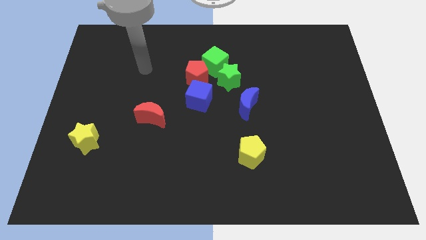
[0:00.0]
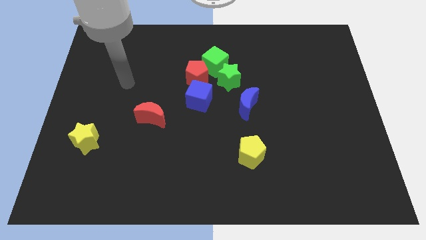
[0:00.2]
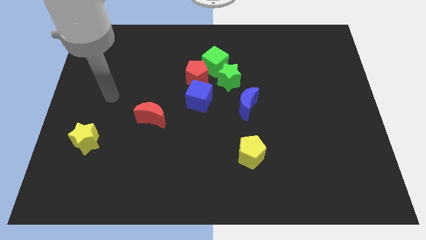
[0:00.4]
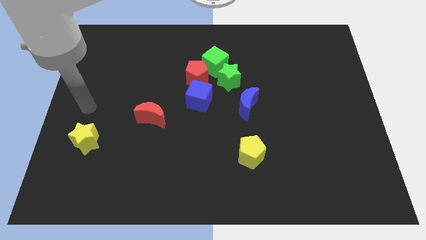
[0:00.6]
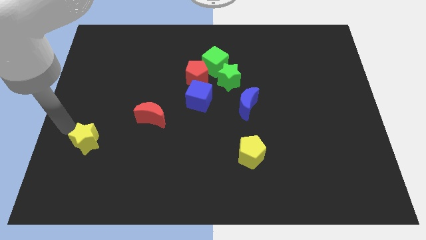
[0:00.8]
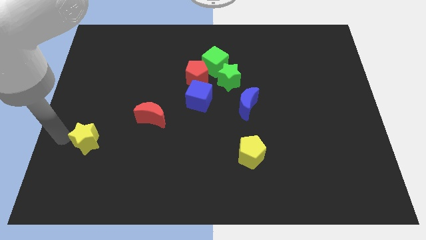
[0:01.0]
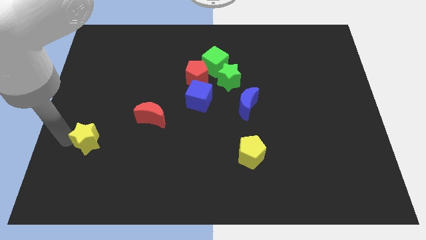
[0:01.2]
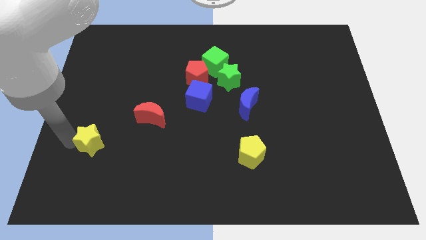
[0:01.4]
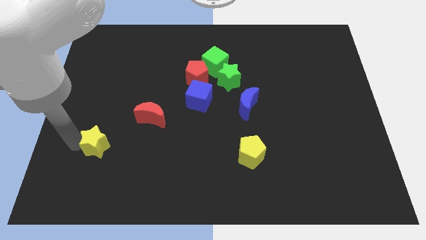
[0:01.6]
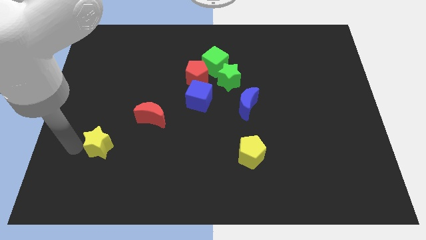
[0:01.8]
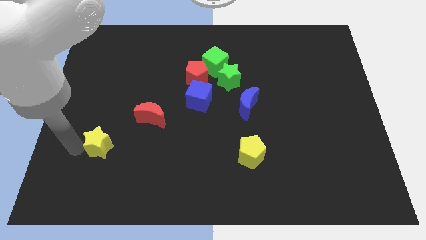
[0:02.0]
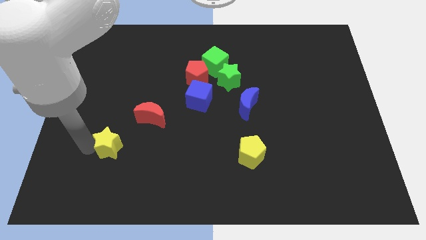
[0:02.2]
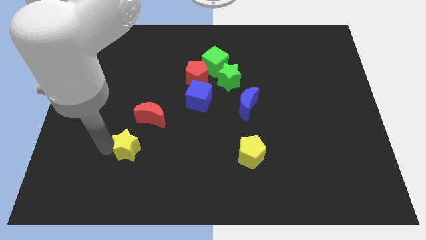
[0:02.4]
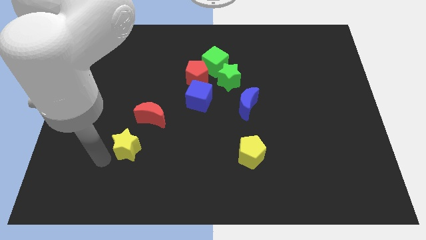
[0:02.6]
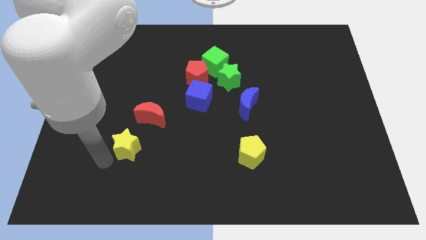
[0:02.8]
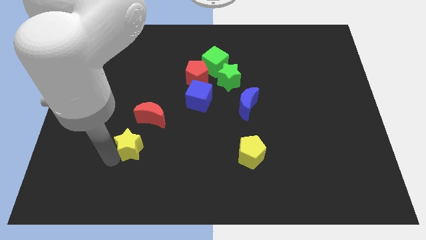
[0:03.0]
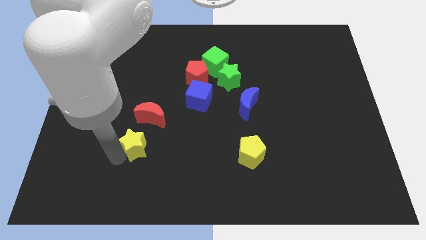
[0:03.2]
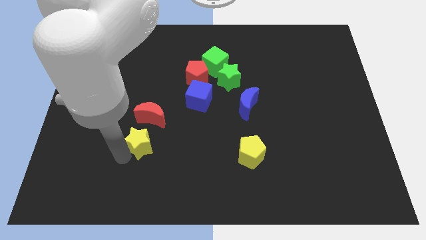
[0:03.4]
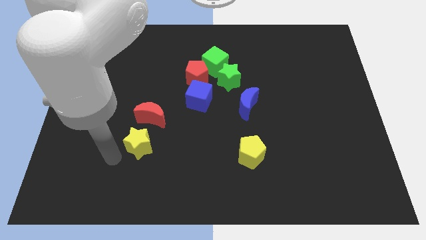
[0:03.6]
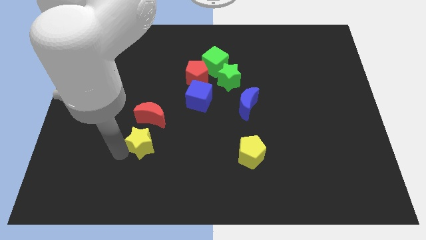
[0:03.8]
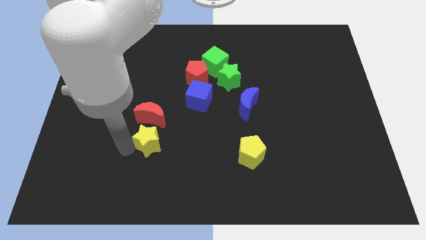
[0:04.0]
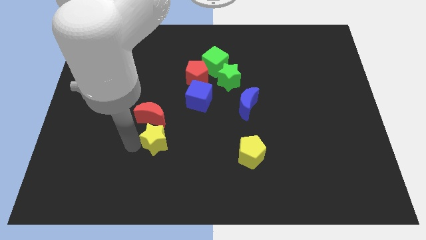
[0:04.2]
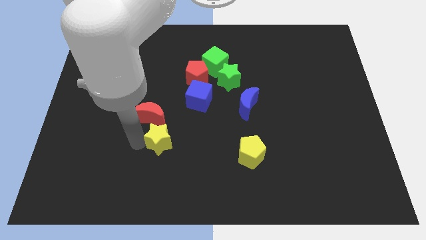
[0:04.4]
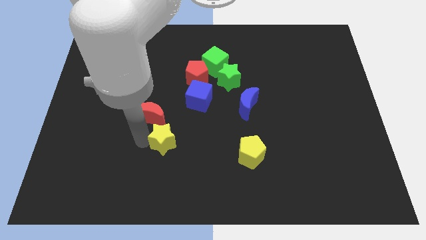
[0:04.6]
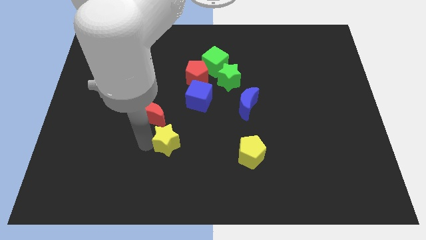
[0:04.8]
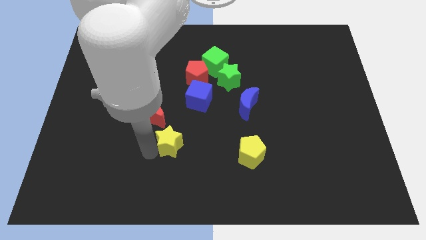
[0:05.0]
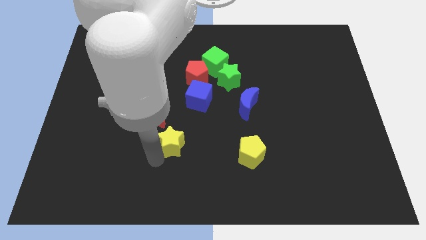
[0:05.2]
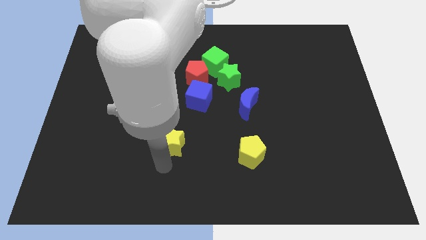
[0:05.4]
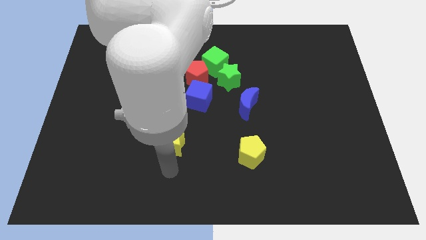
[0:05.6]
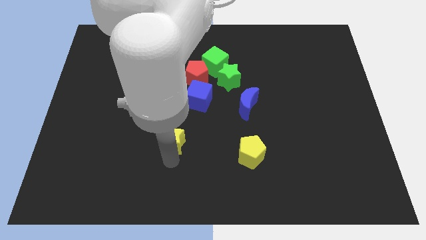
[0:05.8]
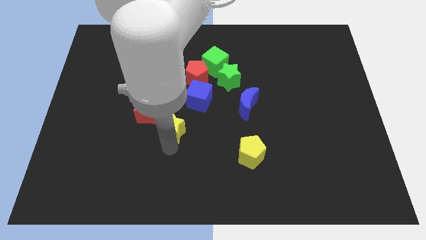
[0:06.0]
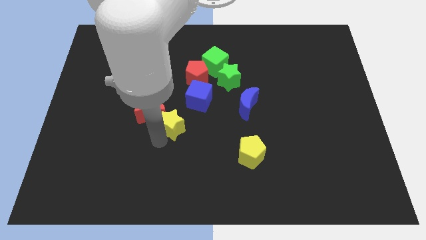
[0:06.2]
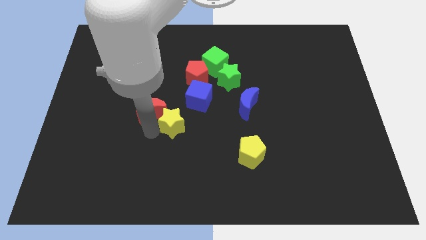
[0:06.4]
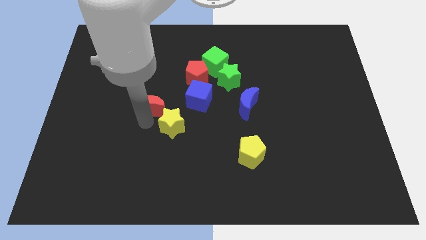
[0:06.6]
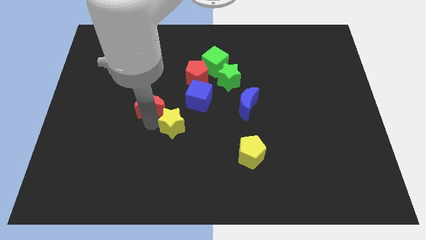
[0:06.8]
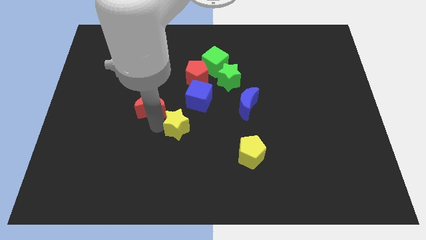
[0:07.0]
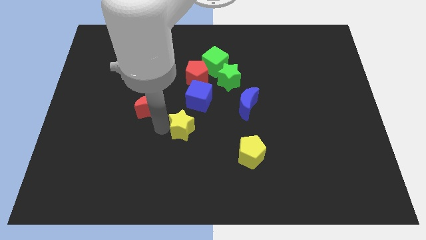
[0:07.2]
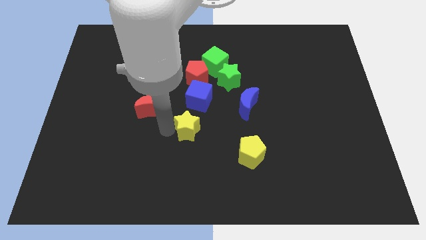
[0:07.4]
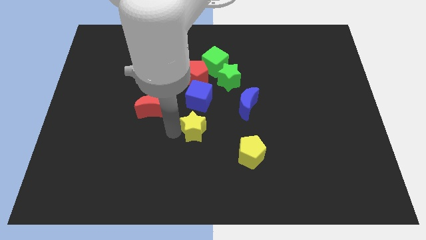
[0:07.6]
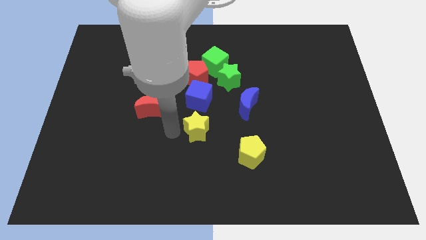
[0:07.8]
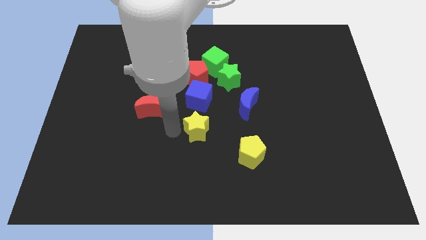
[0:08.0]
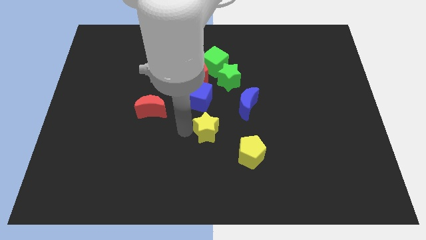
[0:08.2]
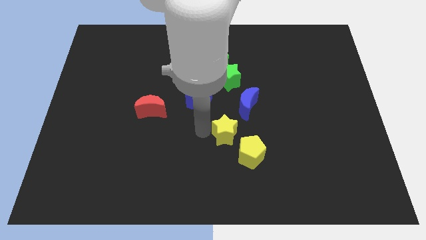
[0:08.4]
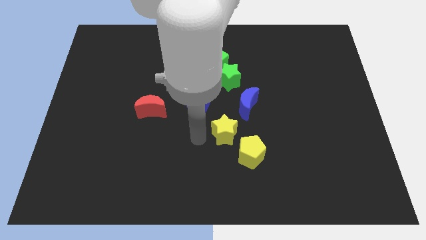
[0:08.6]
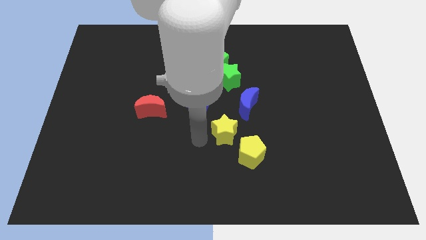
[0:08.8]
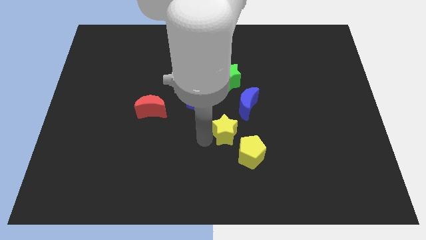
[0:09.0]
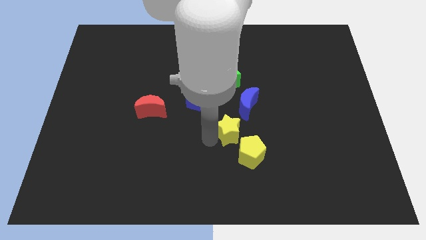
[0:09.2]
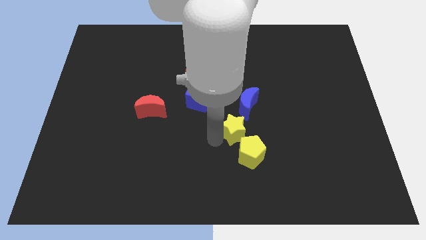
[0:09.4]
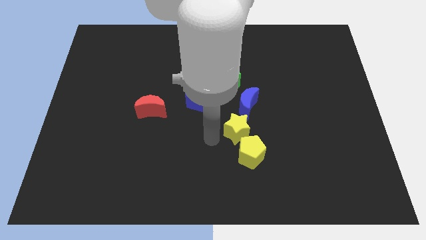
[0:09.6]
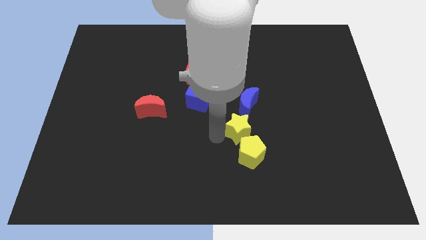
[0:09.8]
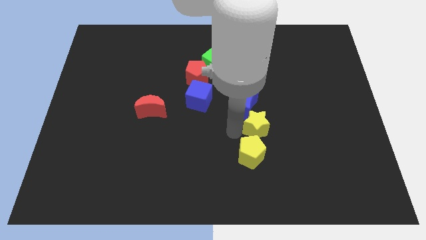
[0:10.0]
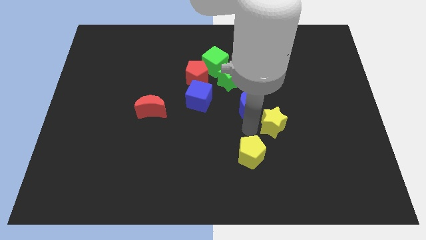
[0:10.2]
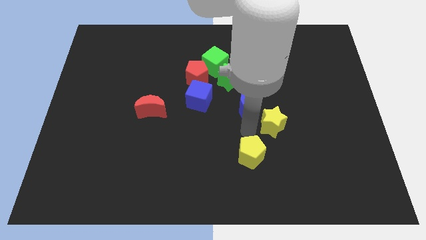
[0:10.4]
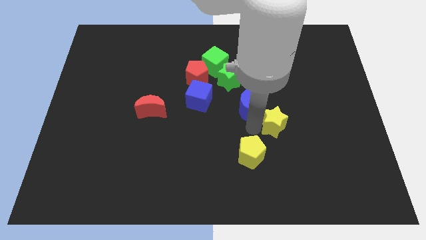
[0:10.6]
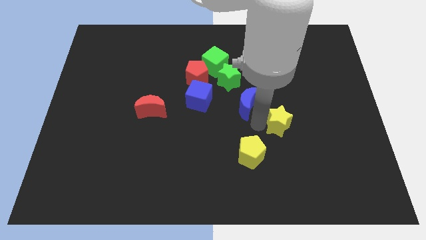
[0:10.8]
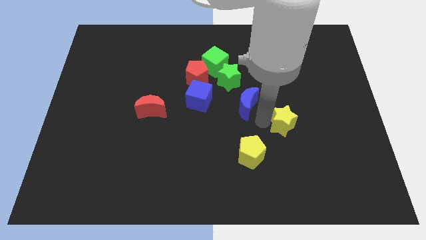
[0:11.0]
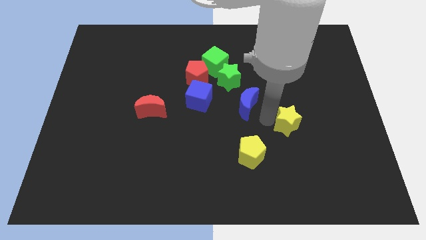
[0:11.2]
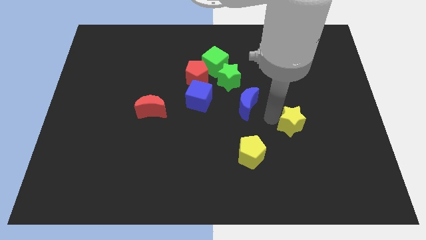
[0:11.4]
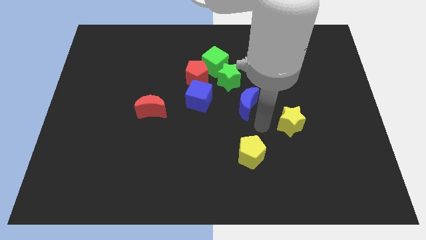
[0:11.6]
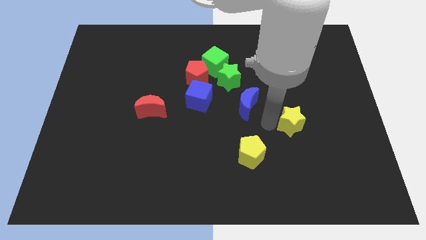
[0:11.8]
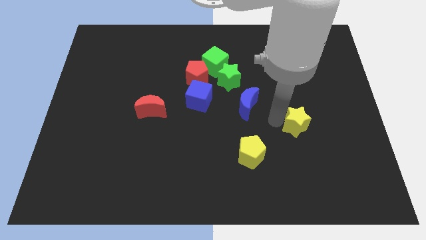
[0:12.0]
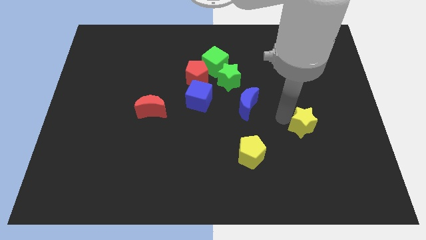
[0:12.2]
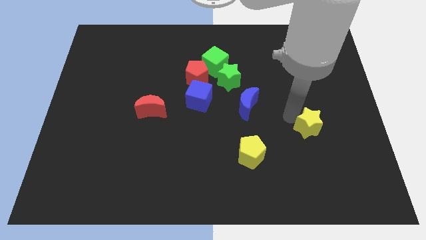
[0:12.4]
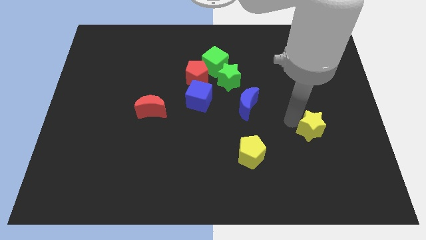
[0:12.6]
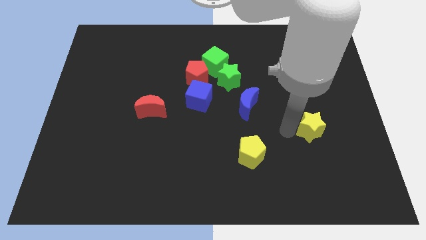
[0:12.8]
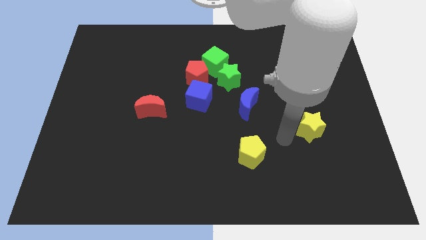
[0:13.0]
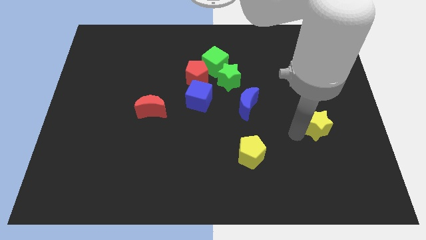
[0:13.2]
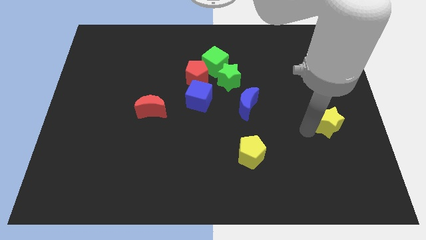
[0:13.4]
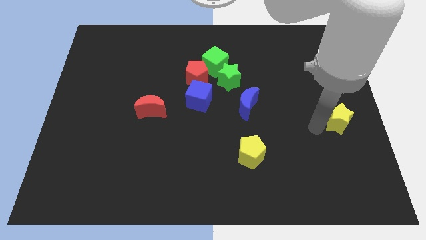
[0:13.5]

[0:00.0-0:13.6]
put the yellow star to the center right

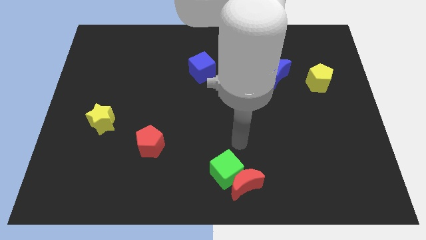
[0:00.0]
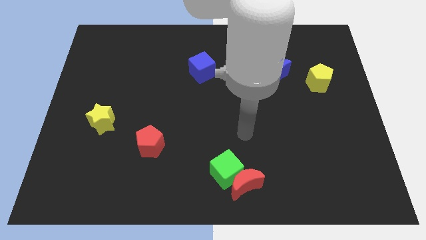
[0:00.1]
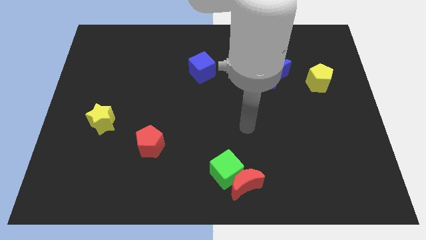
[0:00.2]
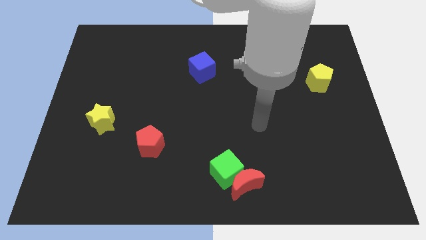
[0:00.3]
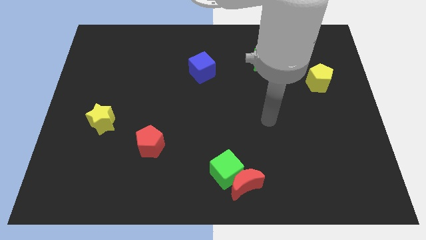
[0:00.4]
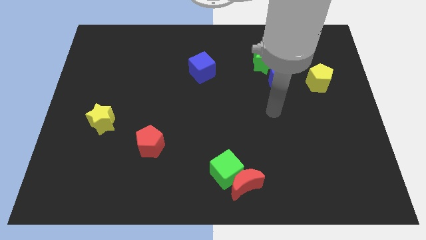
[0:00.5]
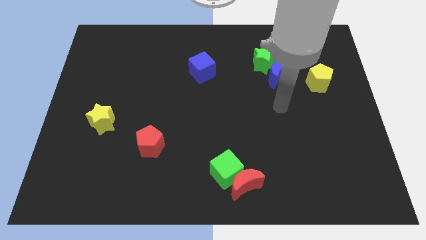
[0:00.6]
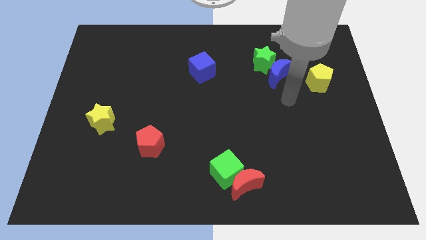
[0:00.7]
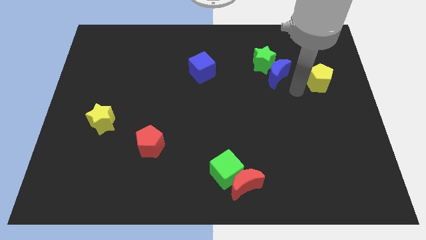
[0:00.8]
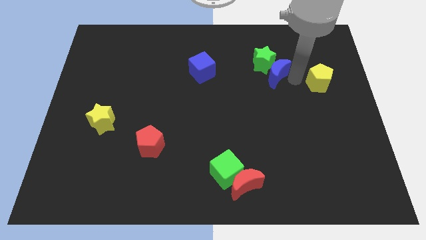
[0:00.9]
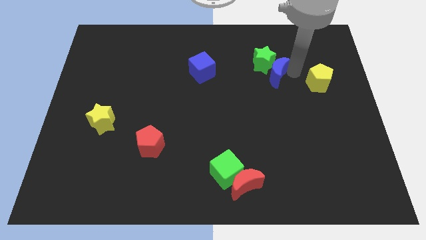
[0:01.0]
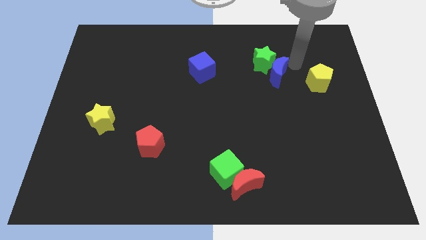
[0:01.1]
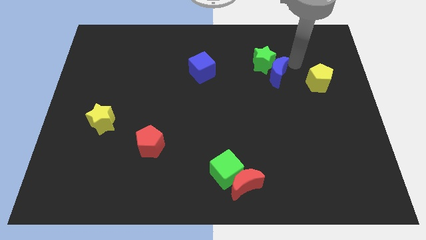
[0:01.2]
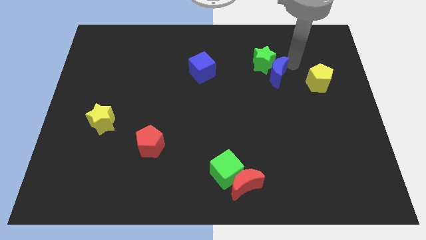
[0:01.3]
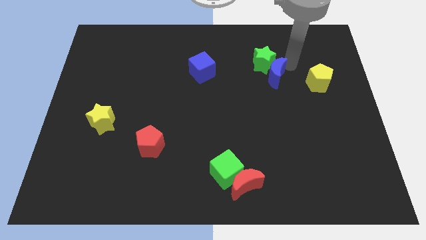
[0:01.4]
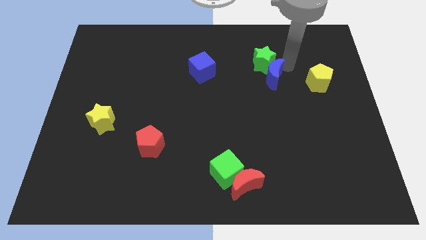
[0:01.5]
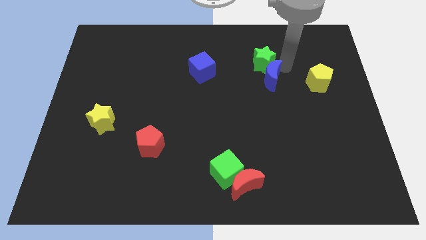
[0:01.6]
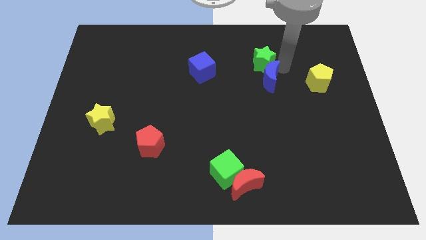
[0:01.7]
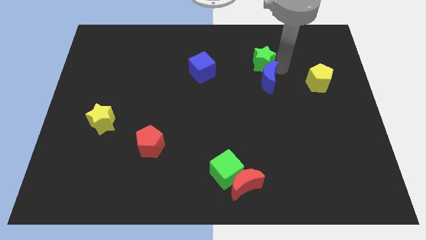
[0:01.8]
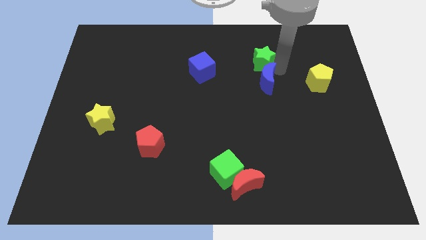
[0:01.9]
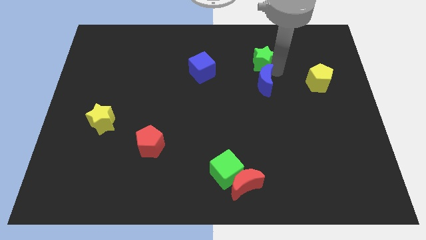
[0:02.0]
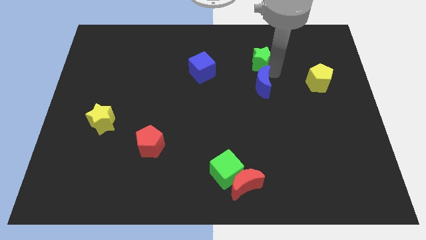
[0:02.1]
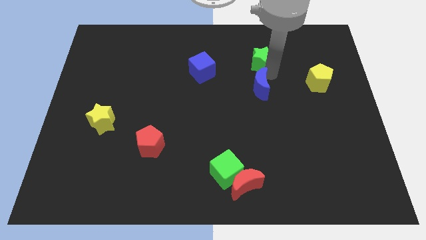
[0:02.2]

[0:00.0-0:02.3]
move the blue moon to the center
